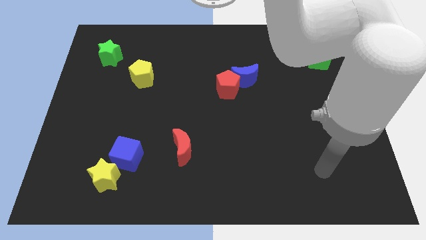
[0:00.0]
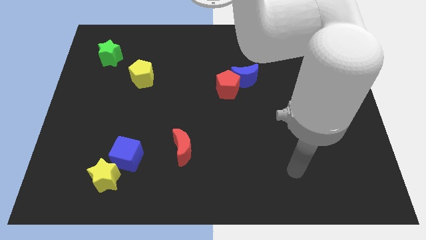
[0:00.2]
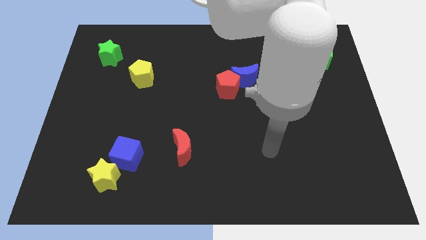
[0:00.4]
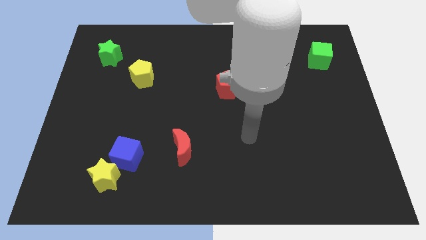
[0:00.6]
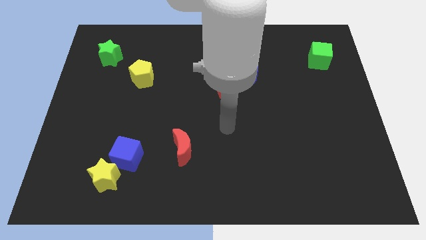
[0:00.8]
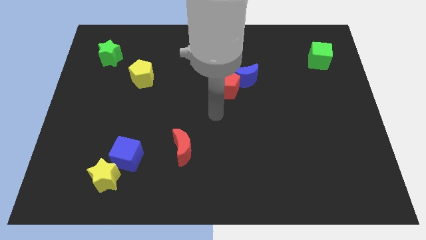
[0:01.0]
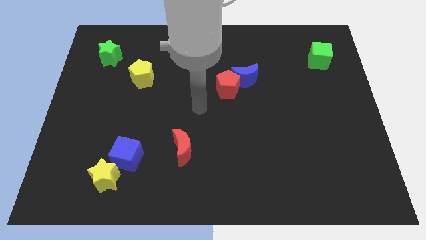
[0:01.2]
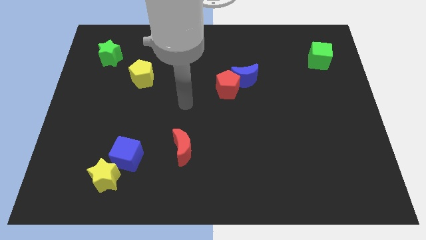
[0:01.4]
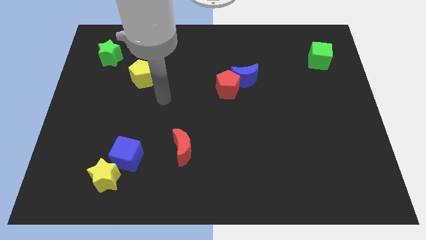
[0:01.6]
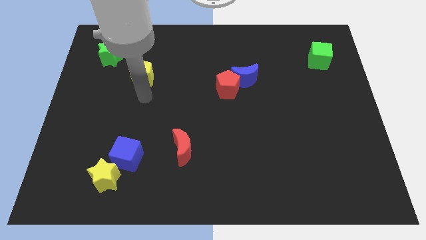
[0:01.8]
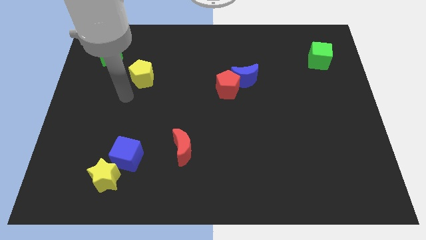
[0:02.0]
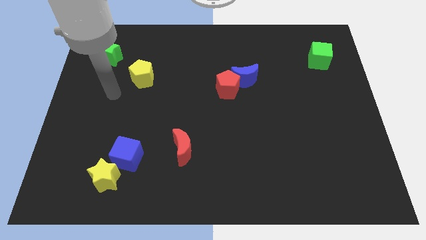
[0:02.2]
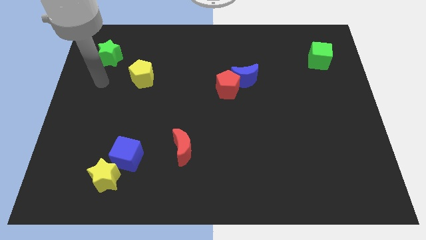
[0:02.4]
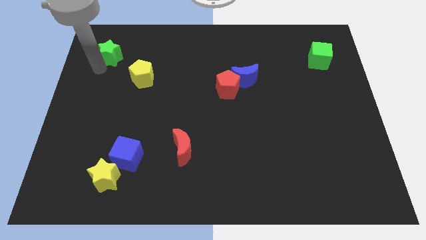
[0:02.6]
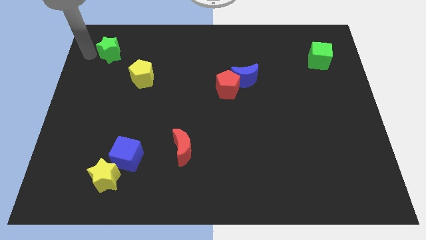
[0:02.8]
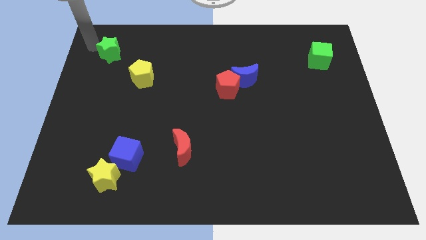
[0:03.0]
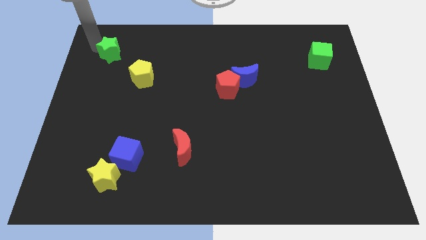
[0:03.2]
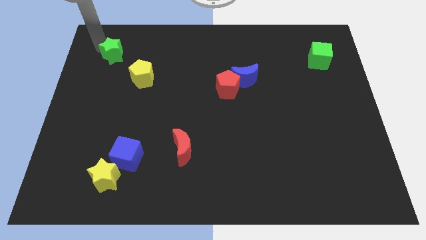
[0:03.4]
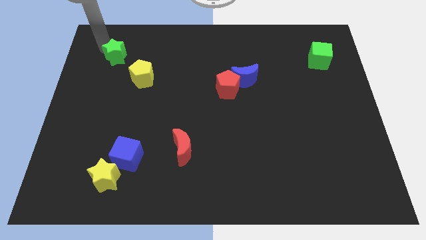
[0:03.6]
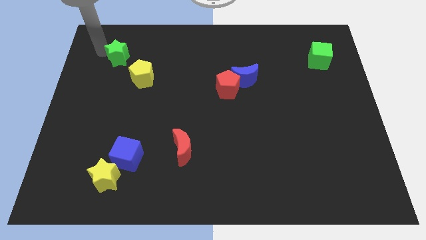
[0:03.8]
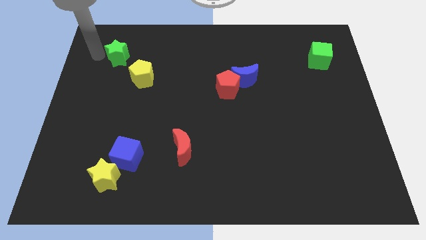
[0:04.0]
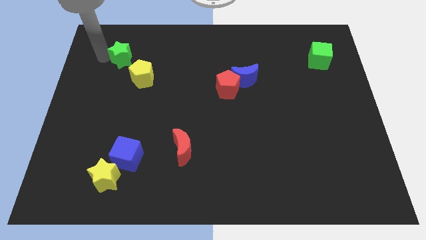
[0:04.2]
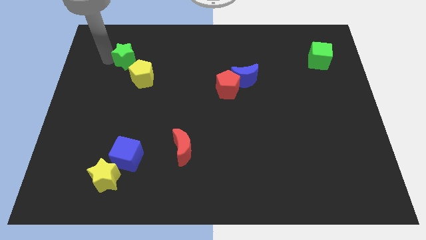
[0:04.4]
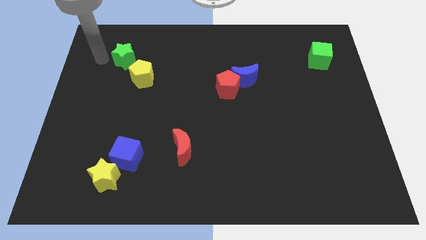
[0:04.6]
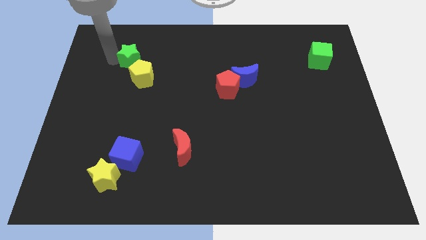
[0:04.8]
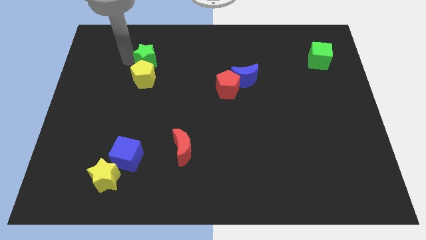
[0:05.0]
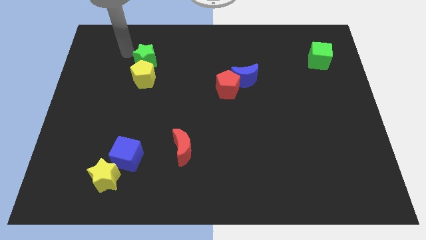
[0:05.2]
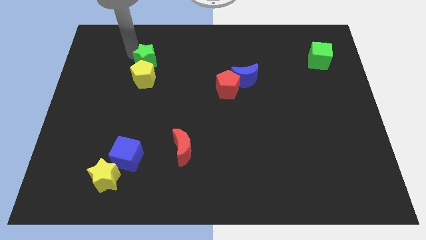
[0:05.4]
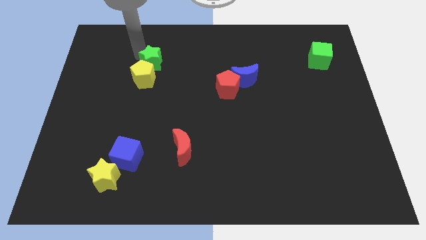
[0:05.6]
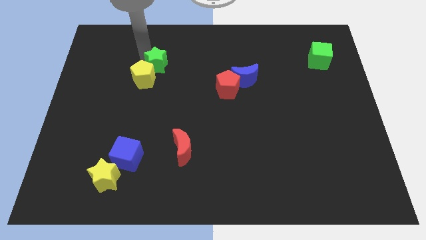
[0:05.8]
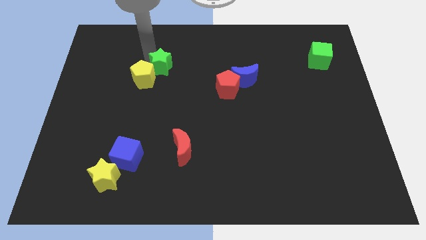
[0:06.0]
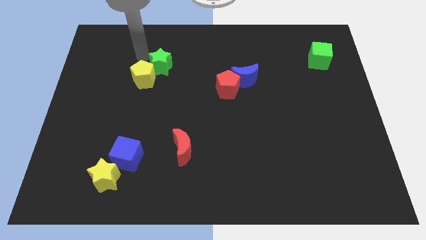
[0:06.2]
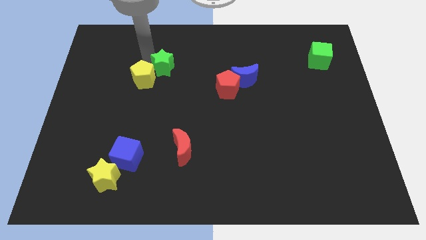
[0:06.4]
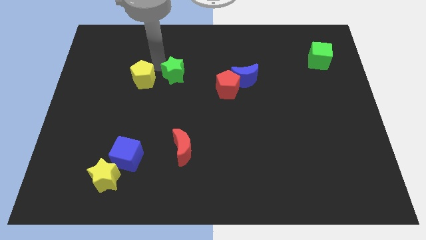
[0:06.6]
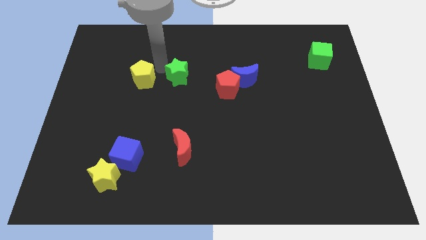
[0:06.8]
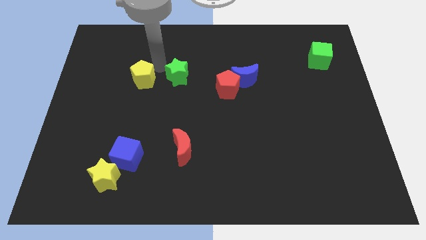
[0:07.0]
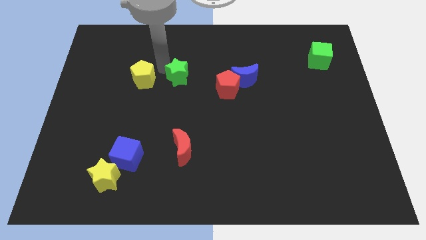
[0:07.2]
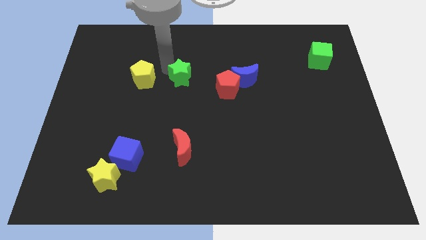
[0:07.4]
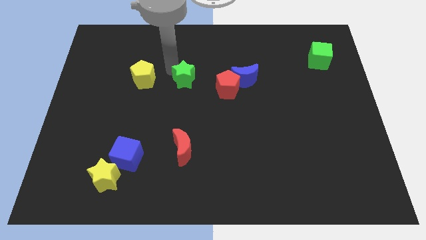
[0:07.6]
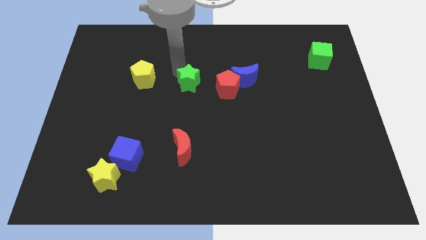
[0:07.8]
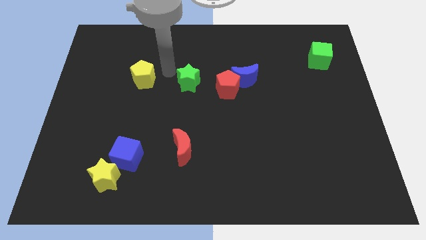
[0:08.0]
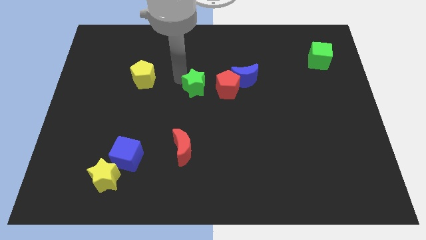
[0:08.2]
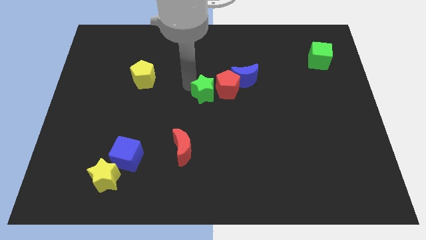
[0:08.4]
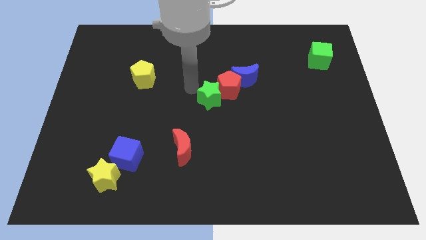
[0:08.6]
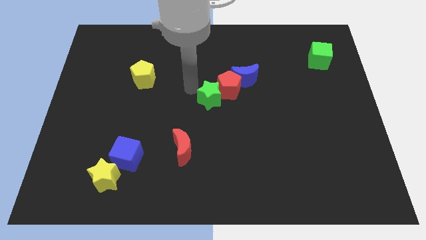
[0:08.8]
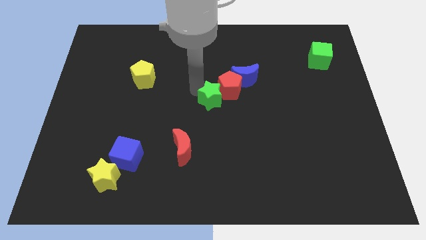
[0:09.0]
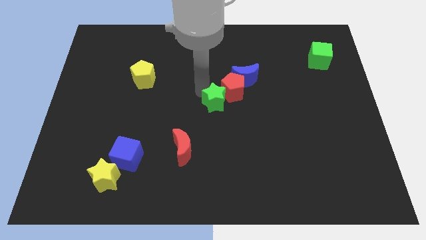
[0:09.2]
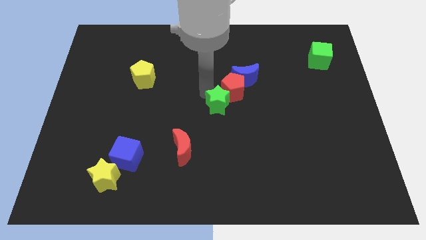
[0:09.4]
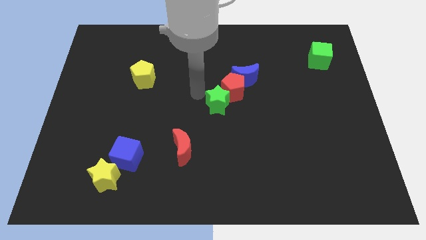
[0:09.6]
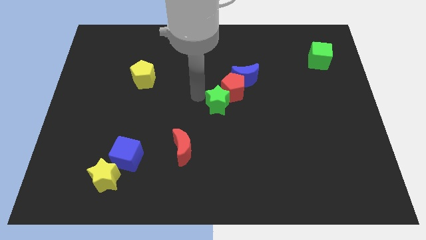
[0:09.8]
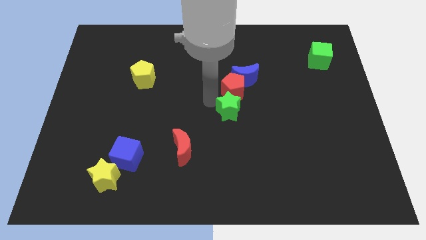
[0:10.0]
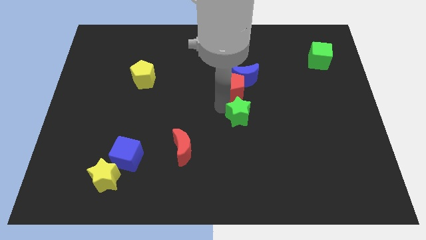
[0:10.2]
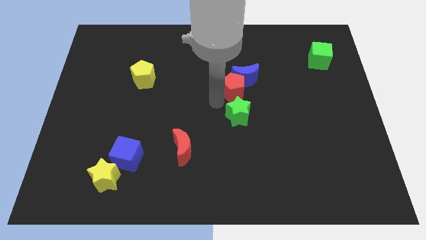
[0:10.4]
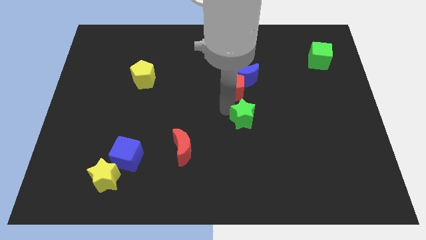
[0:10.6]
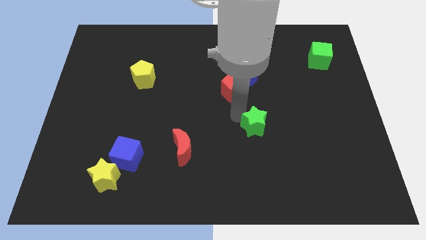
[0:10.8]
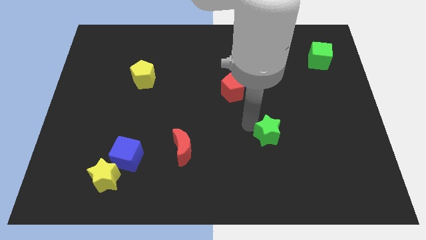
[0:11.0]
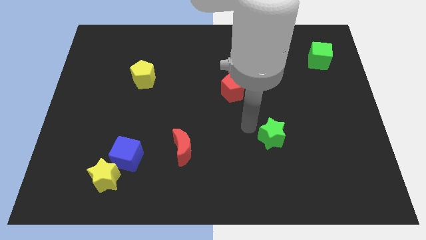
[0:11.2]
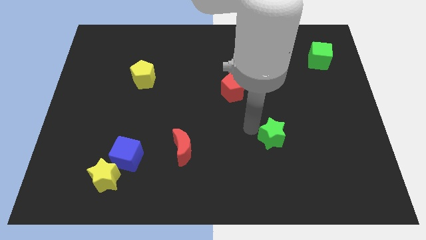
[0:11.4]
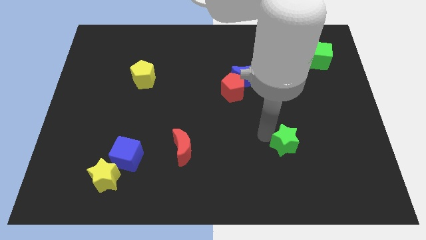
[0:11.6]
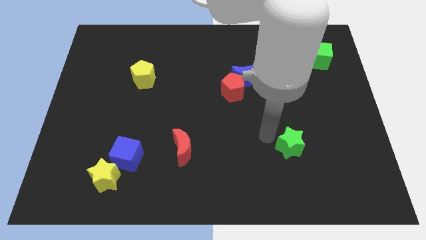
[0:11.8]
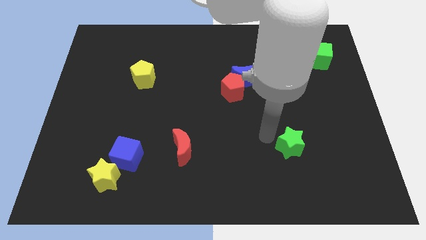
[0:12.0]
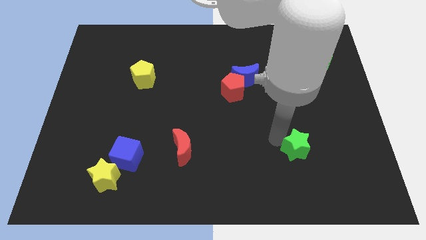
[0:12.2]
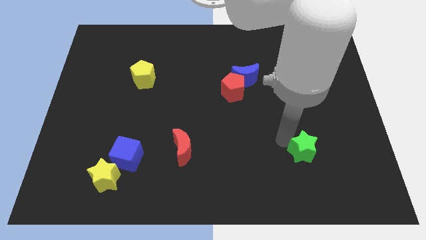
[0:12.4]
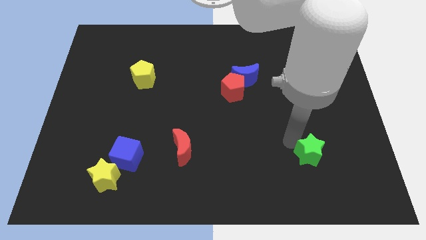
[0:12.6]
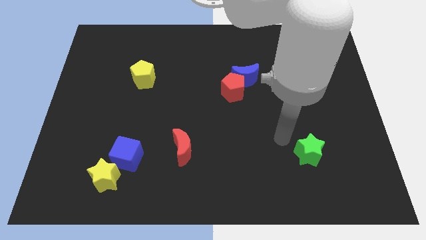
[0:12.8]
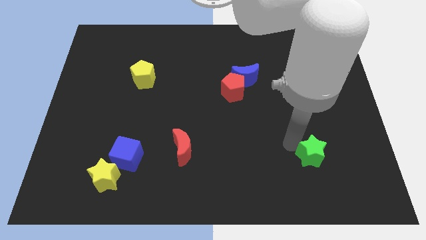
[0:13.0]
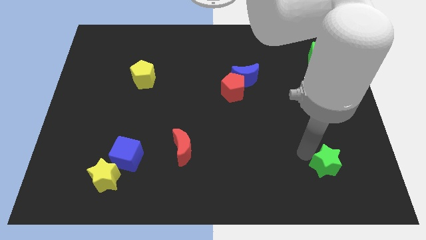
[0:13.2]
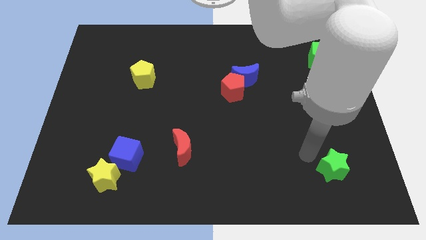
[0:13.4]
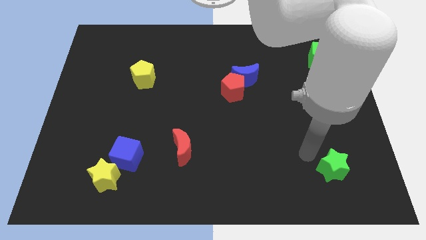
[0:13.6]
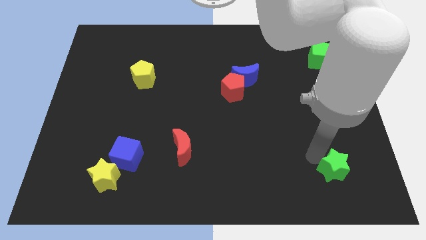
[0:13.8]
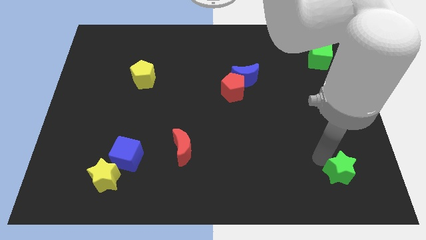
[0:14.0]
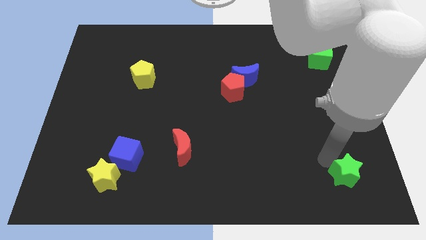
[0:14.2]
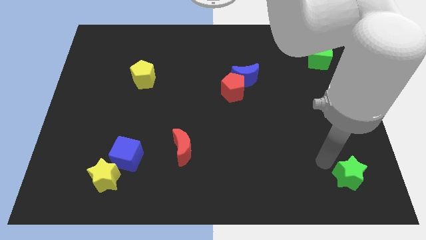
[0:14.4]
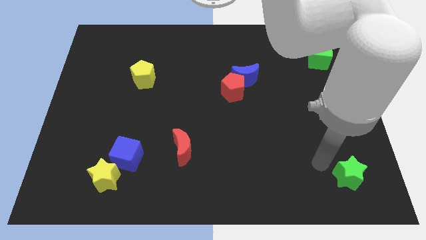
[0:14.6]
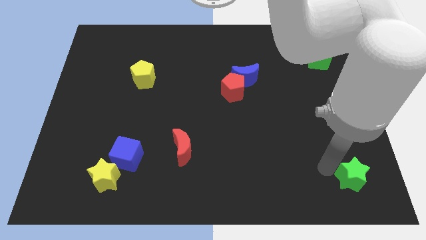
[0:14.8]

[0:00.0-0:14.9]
put the green star to the bottom right of the board
